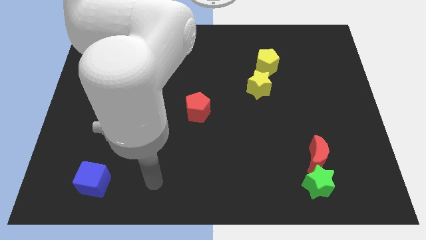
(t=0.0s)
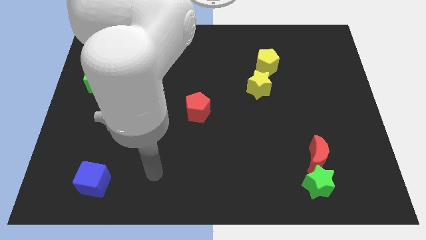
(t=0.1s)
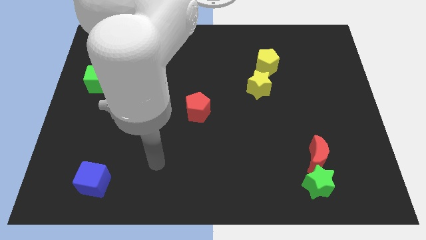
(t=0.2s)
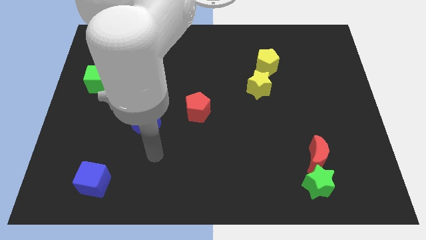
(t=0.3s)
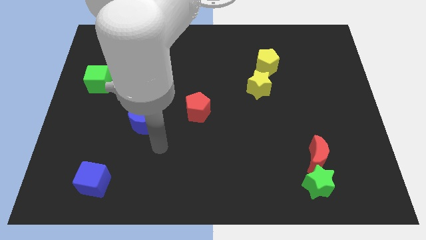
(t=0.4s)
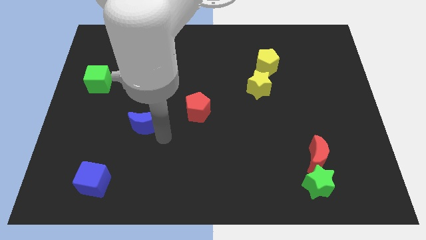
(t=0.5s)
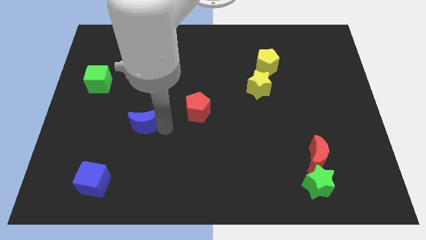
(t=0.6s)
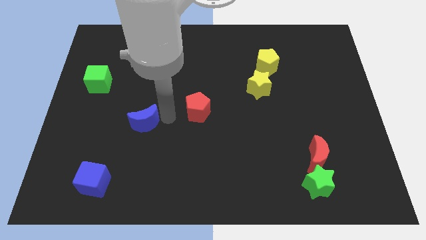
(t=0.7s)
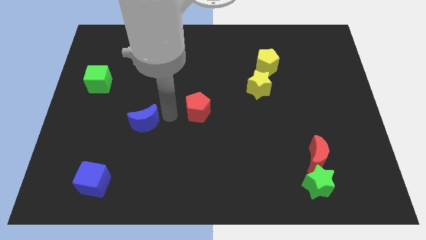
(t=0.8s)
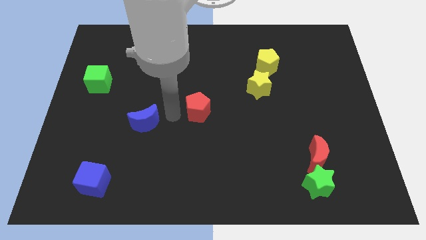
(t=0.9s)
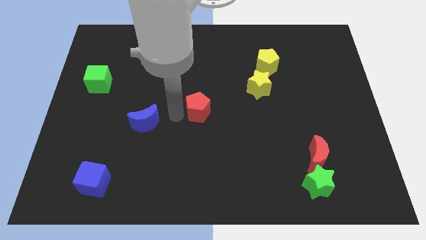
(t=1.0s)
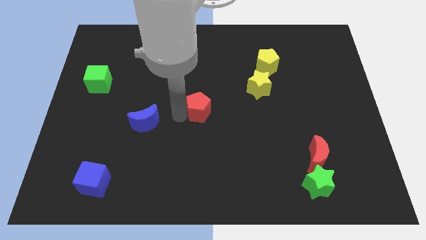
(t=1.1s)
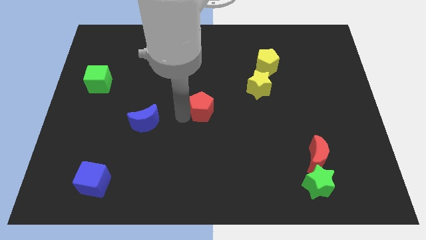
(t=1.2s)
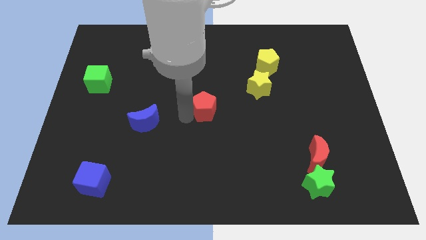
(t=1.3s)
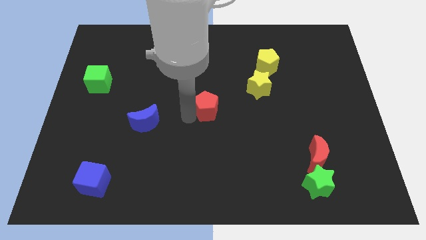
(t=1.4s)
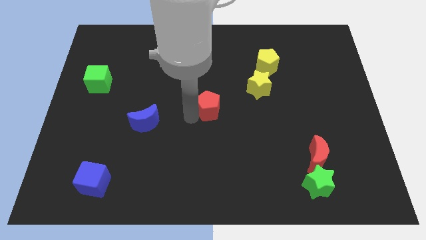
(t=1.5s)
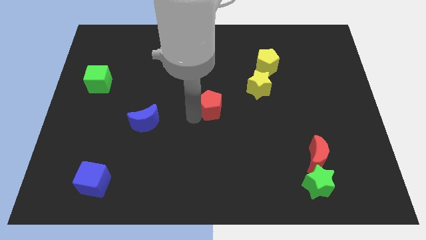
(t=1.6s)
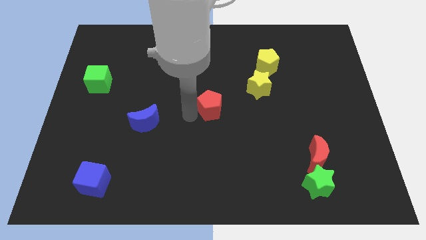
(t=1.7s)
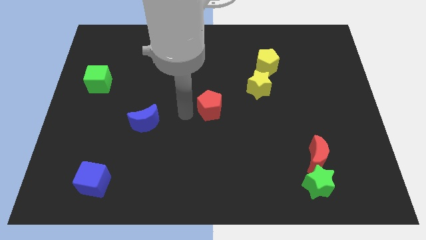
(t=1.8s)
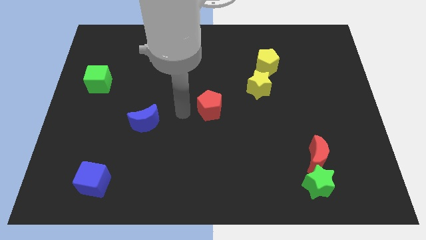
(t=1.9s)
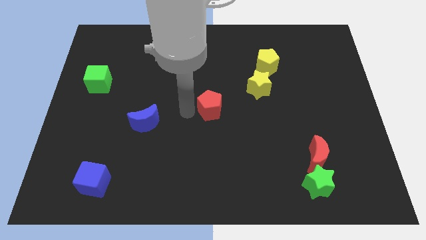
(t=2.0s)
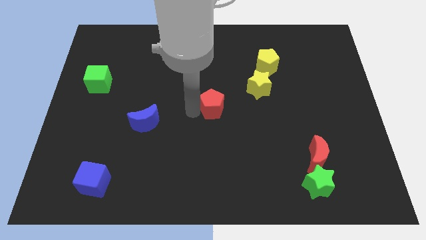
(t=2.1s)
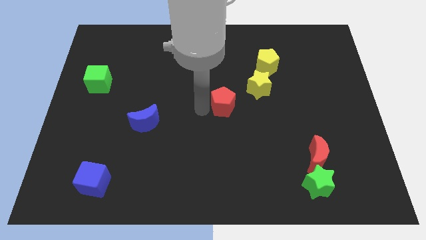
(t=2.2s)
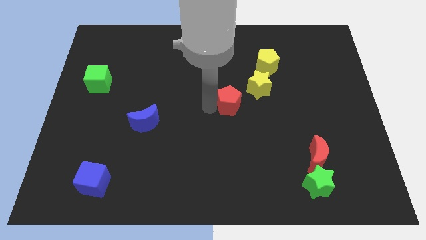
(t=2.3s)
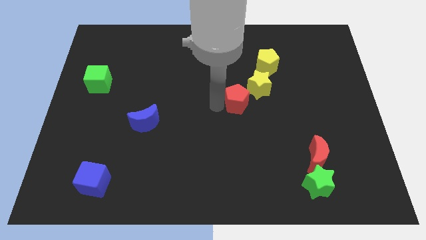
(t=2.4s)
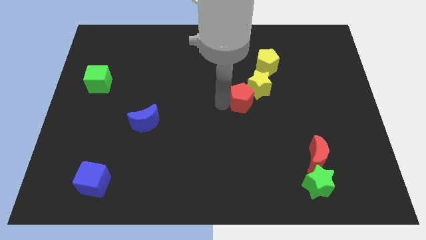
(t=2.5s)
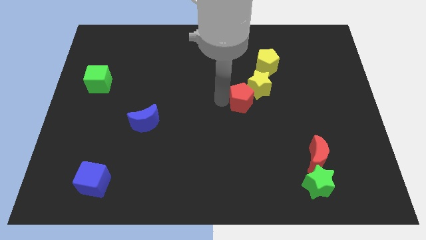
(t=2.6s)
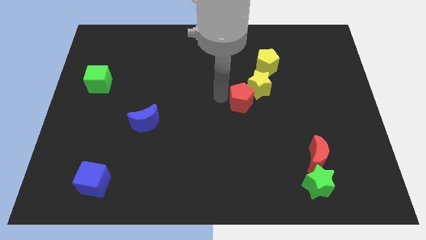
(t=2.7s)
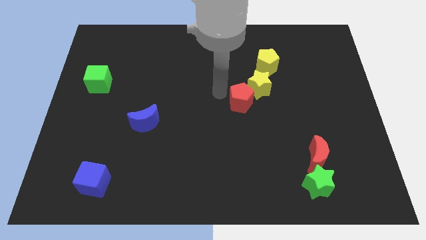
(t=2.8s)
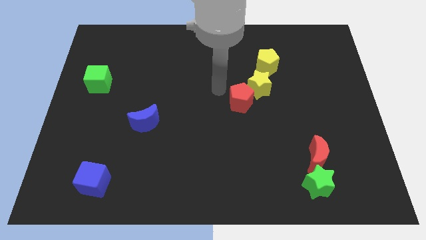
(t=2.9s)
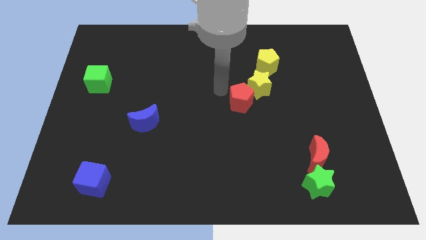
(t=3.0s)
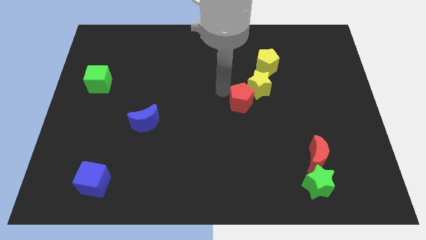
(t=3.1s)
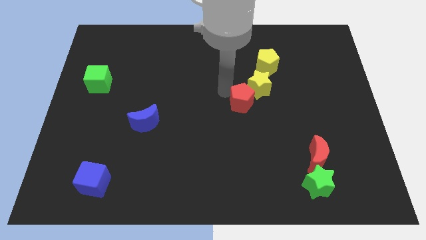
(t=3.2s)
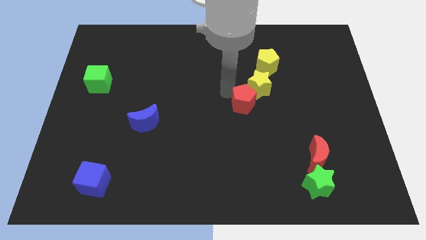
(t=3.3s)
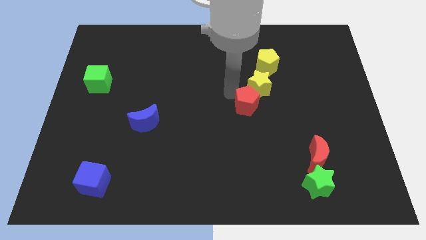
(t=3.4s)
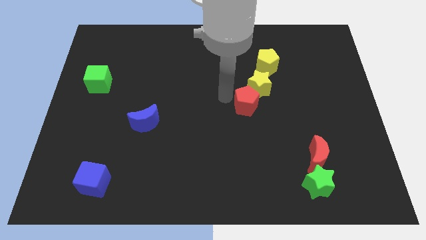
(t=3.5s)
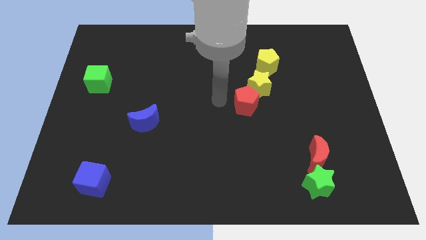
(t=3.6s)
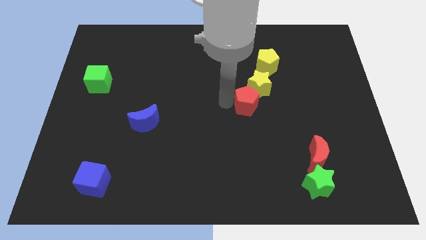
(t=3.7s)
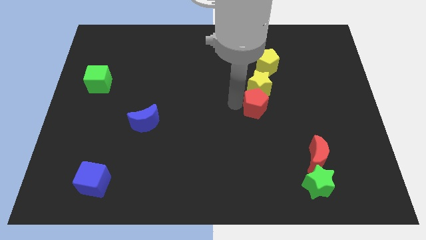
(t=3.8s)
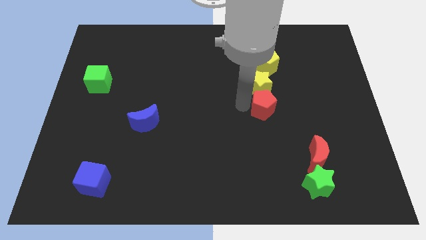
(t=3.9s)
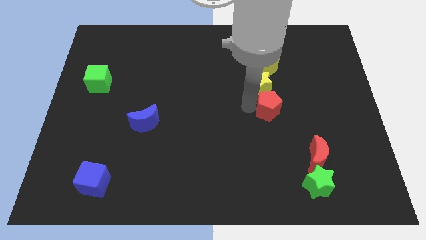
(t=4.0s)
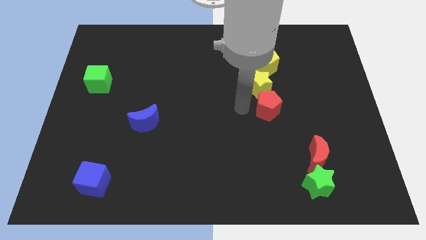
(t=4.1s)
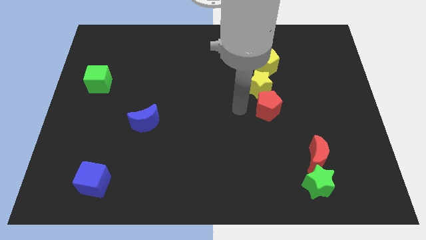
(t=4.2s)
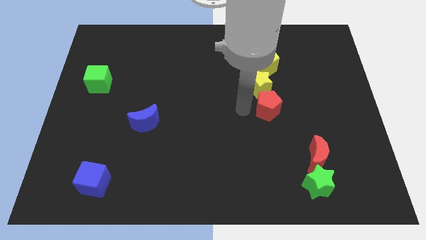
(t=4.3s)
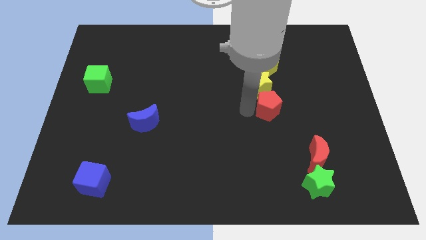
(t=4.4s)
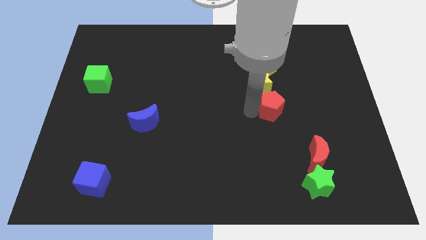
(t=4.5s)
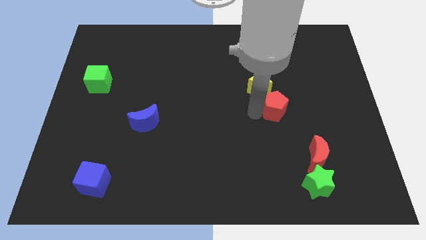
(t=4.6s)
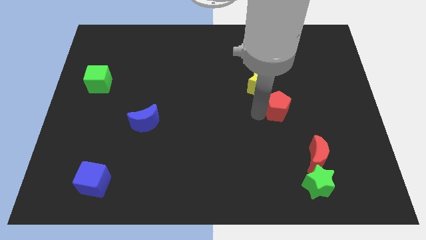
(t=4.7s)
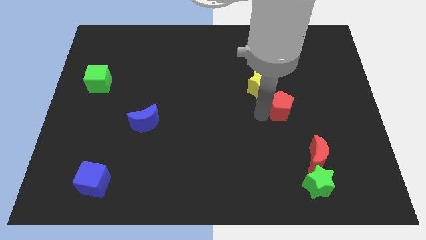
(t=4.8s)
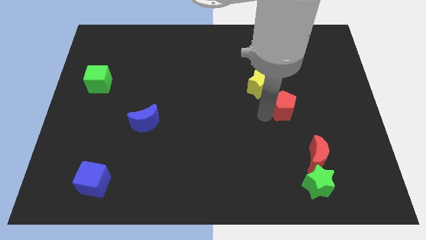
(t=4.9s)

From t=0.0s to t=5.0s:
push the red pentagon right

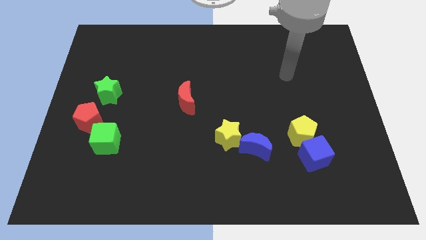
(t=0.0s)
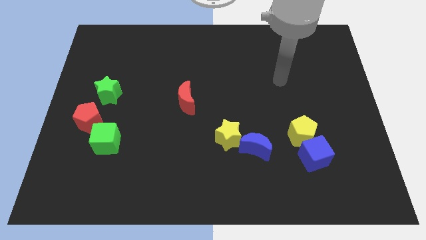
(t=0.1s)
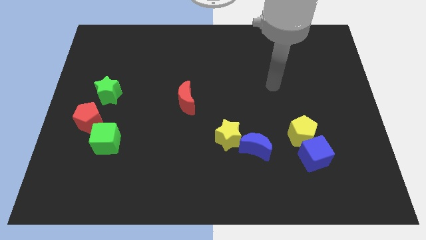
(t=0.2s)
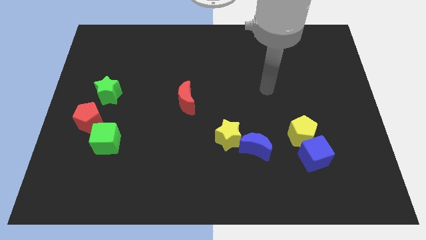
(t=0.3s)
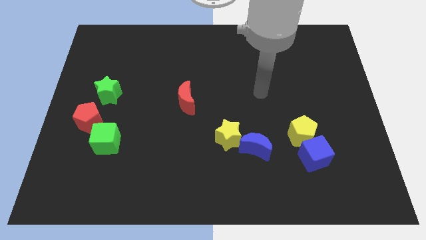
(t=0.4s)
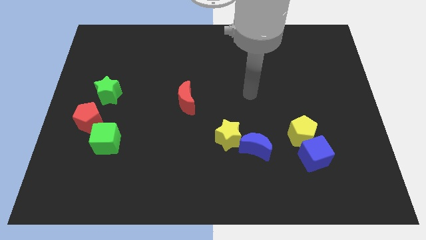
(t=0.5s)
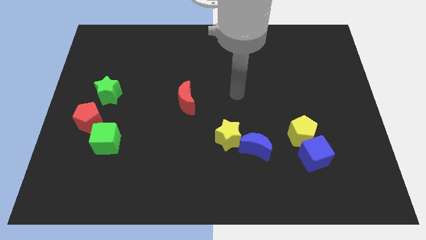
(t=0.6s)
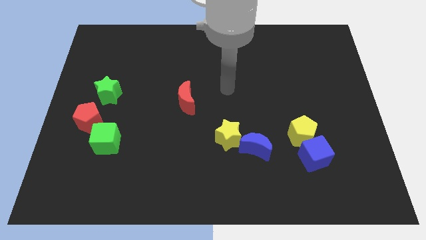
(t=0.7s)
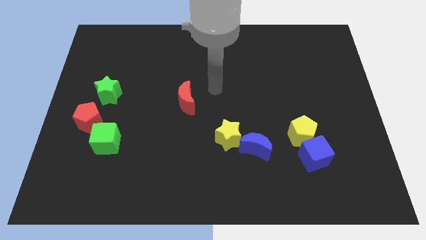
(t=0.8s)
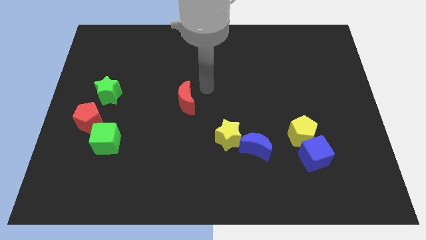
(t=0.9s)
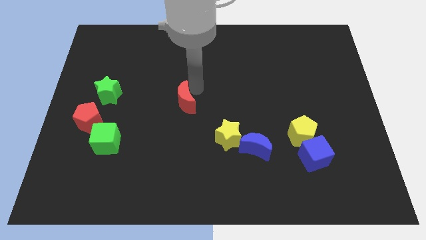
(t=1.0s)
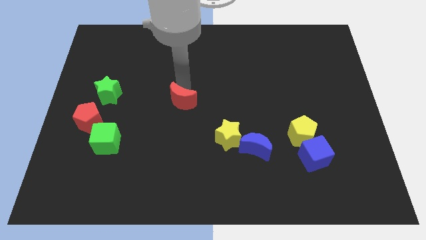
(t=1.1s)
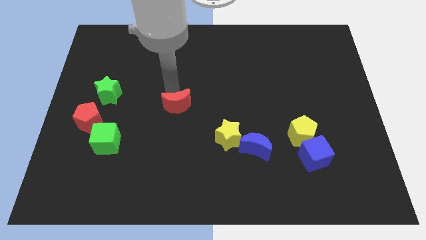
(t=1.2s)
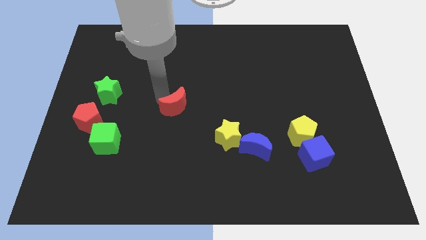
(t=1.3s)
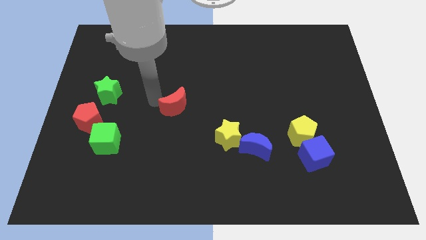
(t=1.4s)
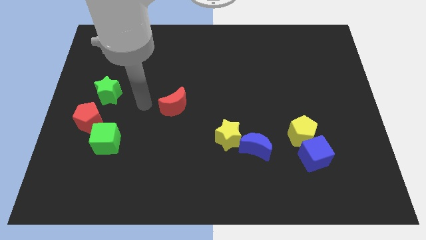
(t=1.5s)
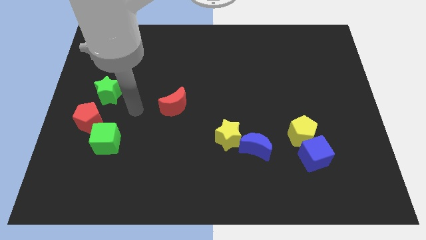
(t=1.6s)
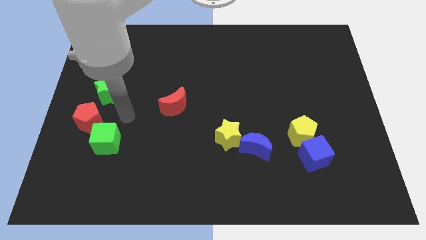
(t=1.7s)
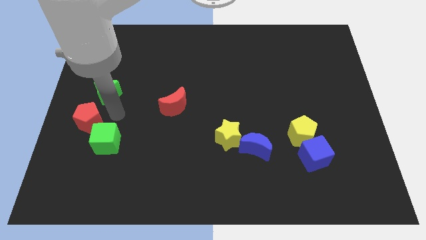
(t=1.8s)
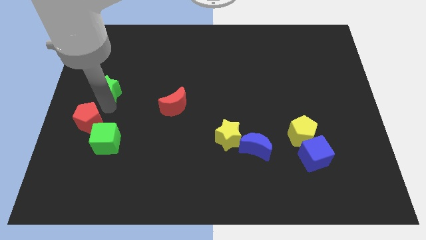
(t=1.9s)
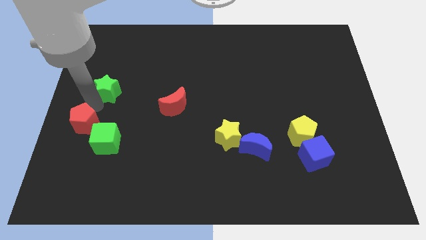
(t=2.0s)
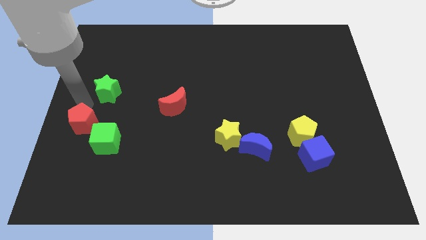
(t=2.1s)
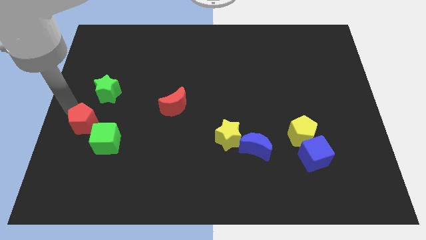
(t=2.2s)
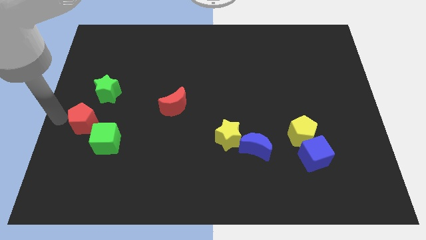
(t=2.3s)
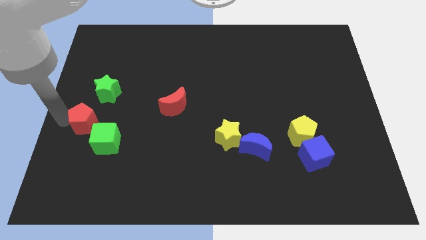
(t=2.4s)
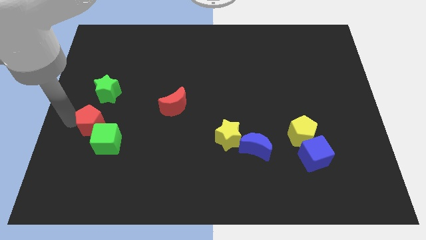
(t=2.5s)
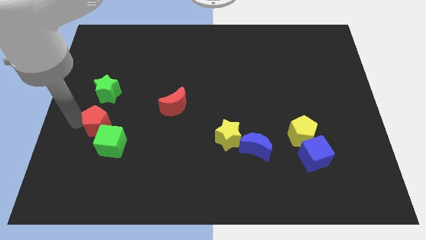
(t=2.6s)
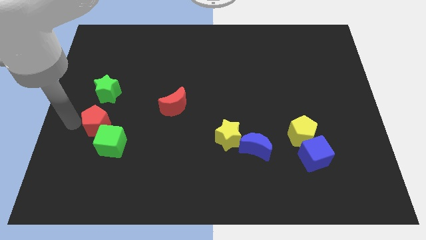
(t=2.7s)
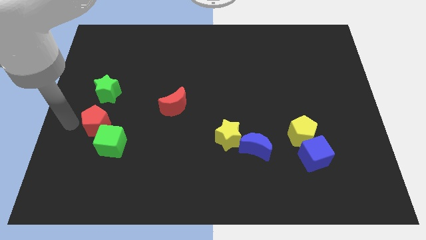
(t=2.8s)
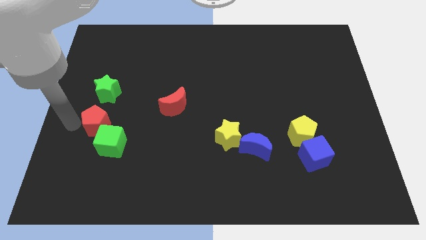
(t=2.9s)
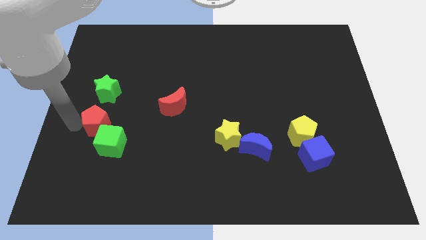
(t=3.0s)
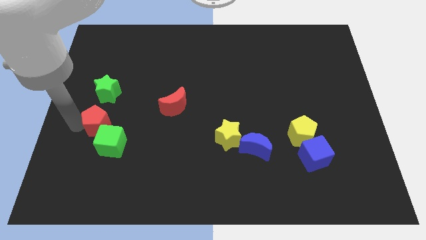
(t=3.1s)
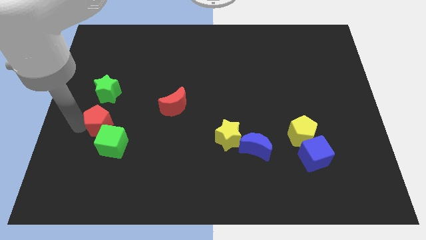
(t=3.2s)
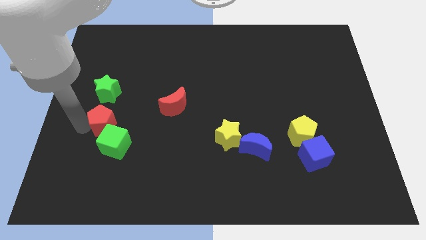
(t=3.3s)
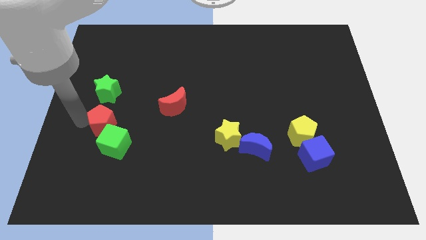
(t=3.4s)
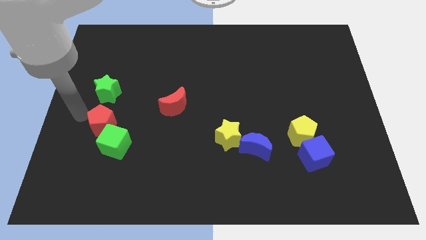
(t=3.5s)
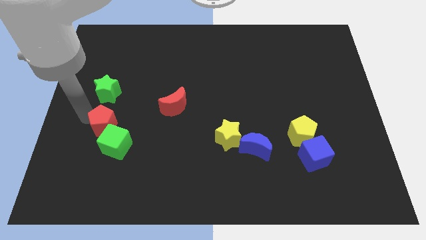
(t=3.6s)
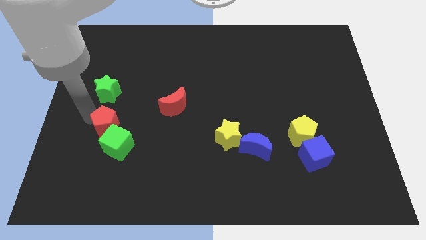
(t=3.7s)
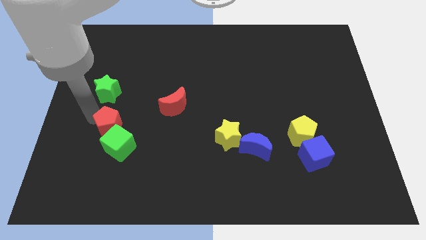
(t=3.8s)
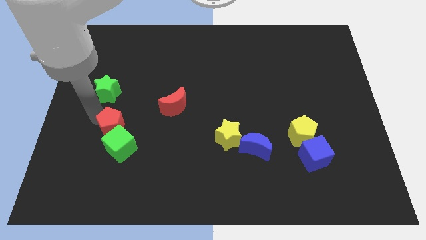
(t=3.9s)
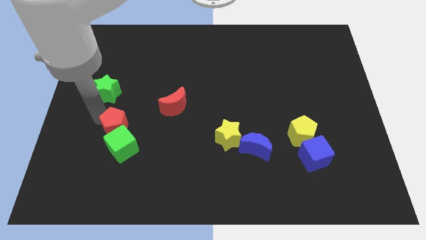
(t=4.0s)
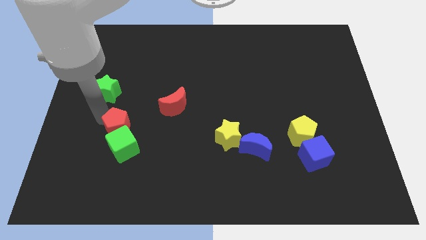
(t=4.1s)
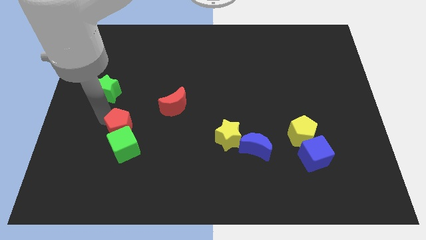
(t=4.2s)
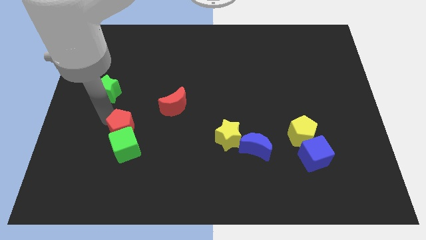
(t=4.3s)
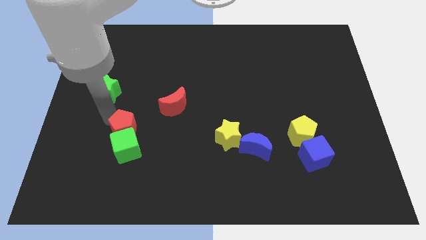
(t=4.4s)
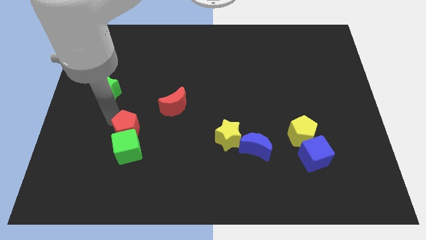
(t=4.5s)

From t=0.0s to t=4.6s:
slide the red pentagon a bit downwards and right diagonally
